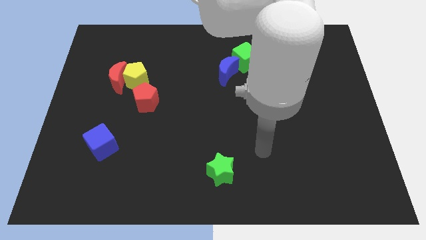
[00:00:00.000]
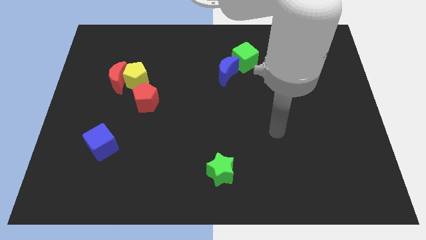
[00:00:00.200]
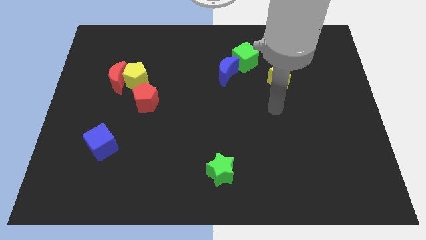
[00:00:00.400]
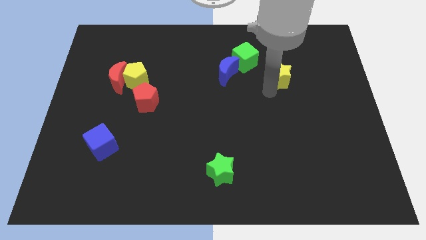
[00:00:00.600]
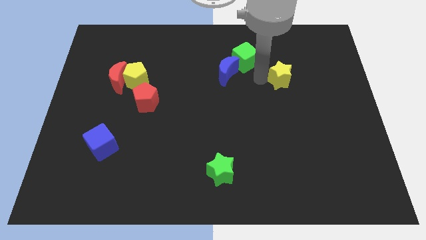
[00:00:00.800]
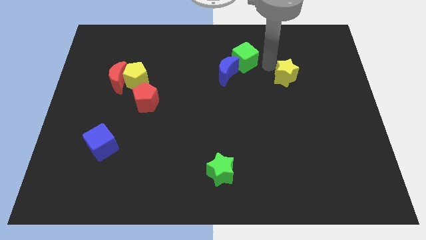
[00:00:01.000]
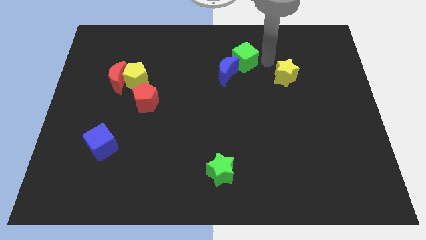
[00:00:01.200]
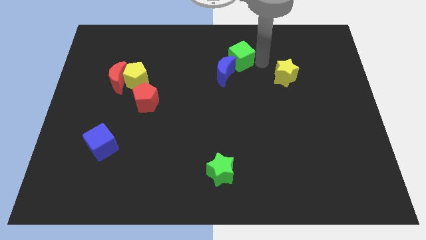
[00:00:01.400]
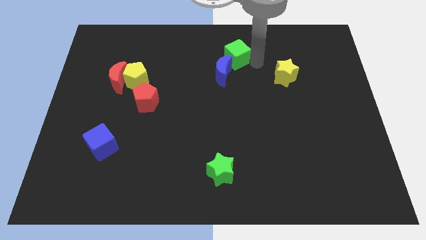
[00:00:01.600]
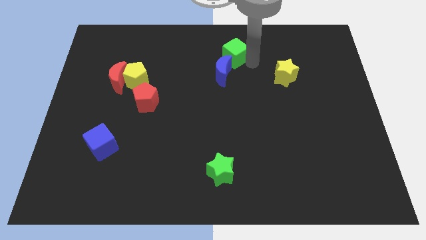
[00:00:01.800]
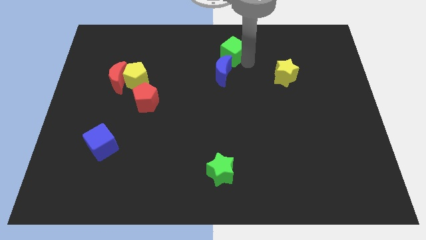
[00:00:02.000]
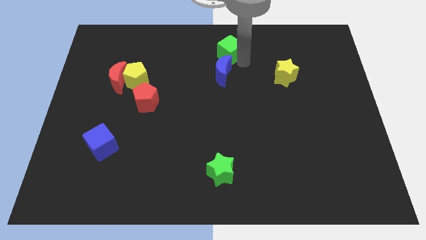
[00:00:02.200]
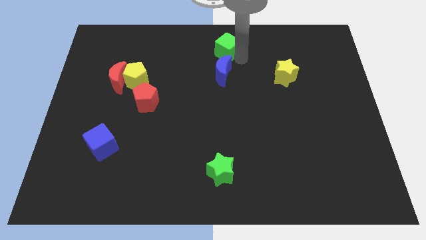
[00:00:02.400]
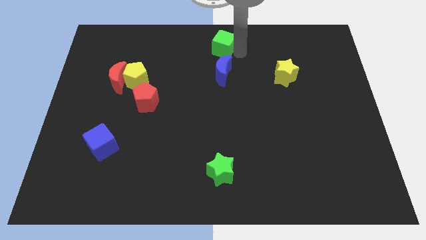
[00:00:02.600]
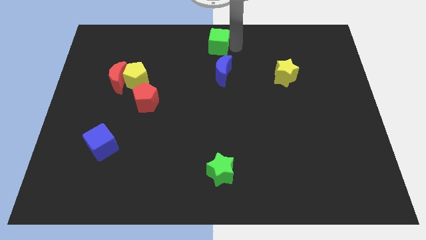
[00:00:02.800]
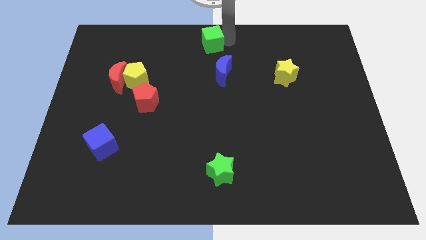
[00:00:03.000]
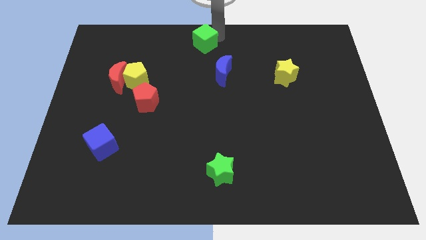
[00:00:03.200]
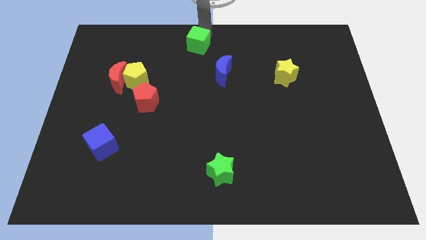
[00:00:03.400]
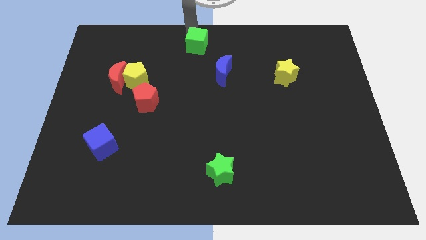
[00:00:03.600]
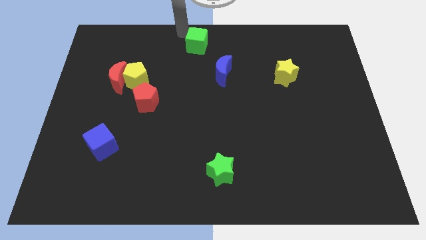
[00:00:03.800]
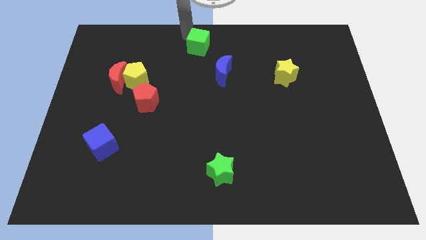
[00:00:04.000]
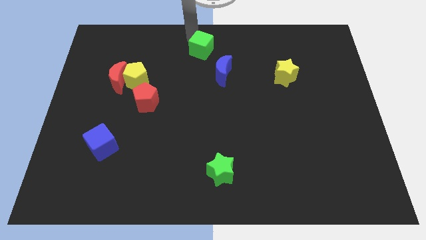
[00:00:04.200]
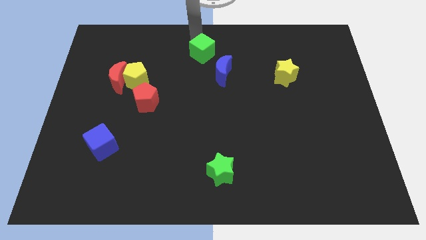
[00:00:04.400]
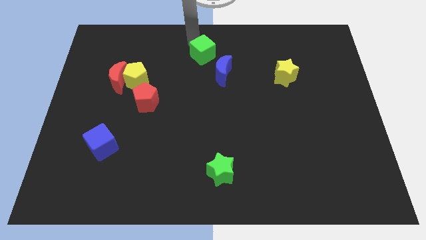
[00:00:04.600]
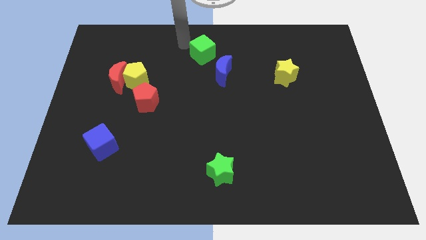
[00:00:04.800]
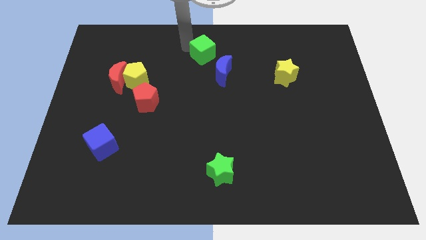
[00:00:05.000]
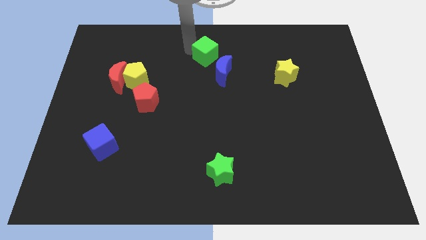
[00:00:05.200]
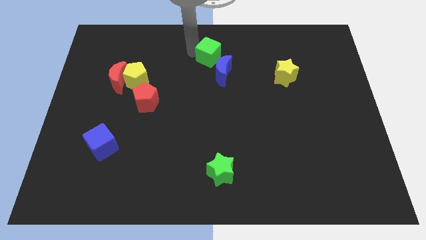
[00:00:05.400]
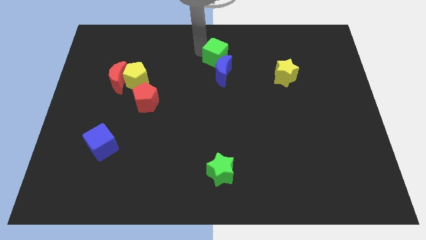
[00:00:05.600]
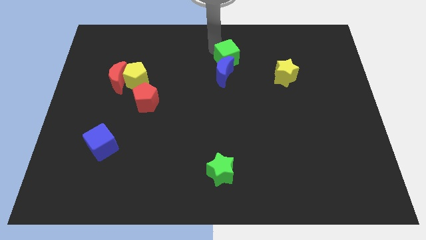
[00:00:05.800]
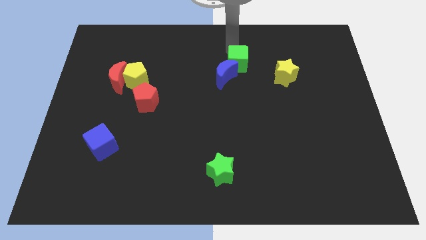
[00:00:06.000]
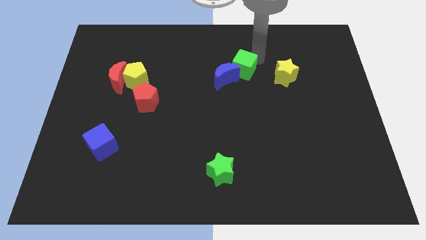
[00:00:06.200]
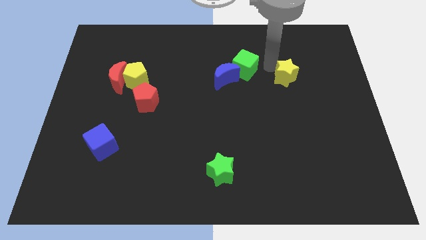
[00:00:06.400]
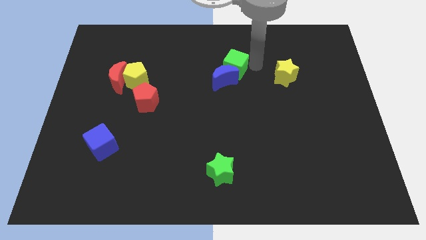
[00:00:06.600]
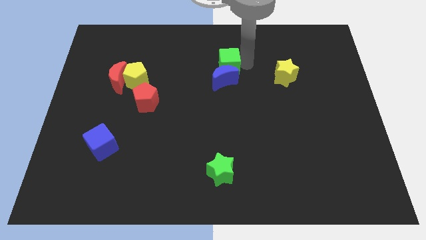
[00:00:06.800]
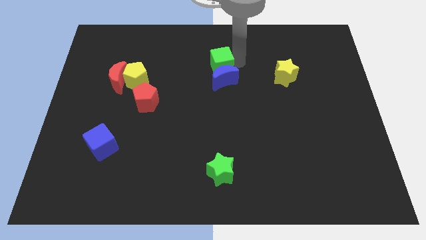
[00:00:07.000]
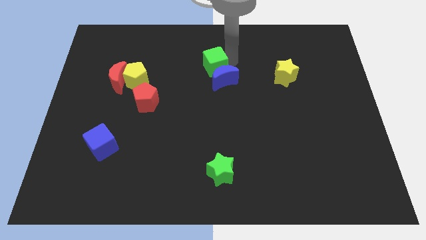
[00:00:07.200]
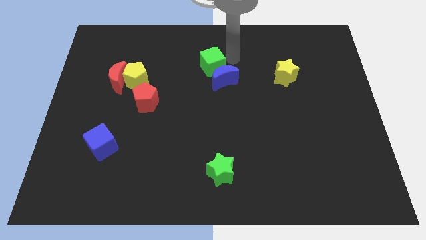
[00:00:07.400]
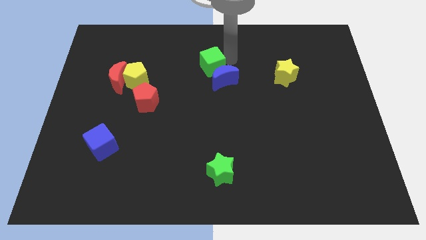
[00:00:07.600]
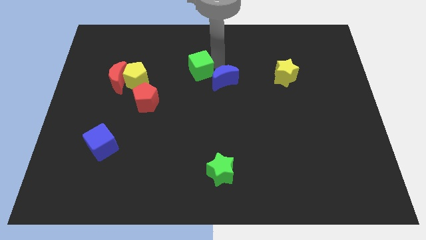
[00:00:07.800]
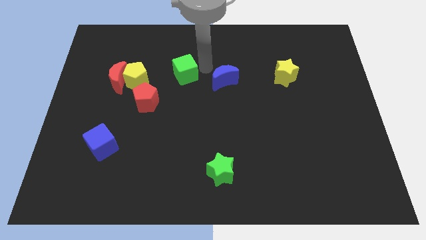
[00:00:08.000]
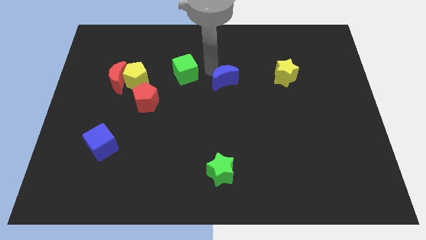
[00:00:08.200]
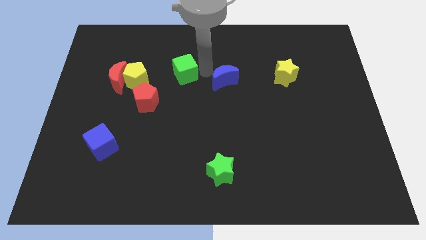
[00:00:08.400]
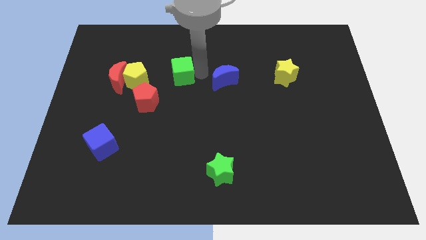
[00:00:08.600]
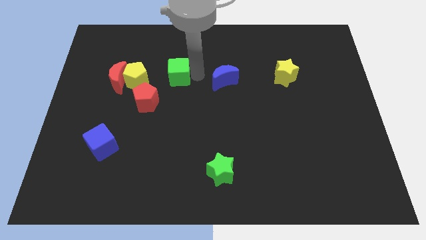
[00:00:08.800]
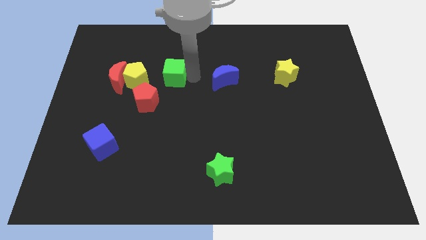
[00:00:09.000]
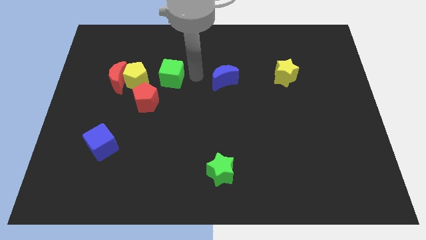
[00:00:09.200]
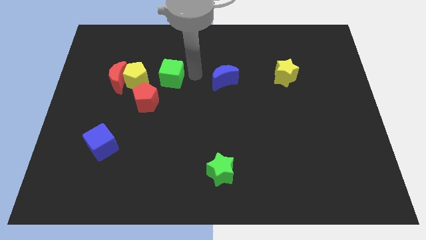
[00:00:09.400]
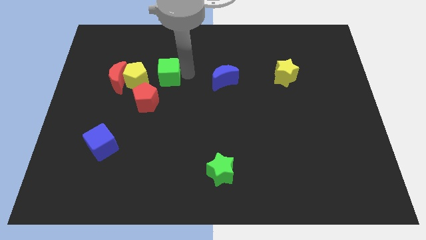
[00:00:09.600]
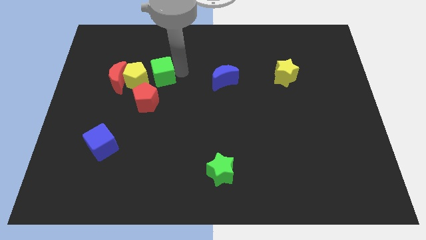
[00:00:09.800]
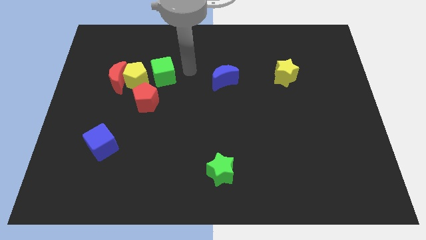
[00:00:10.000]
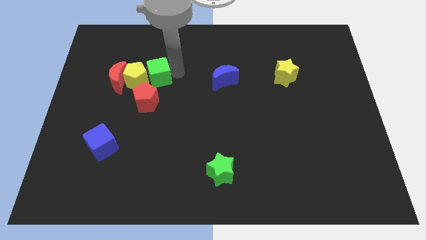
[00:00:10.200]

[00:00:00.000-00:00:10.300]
push the green cube next to the yellow pentagon

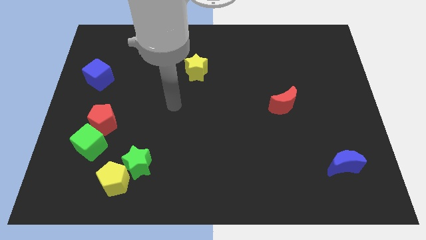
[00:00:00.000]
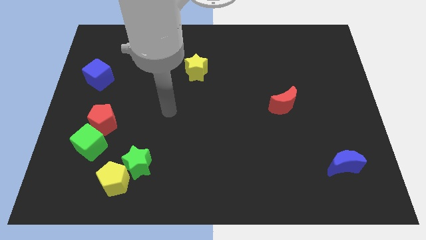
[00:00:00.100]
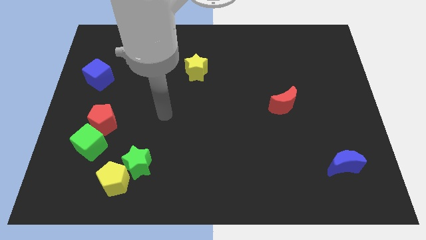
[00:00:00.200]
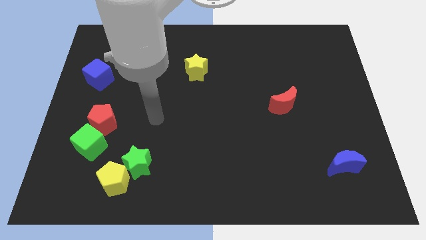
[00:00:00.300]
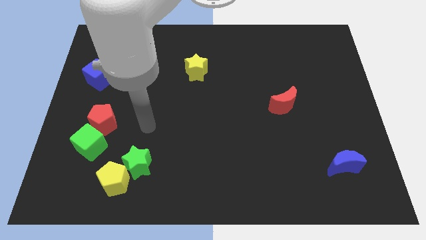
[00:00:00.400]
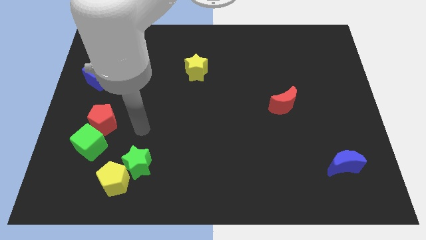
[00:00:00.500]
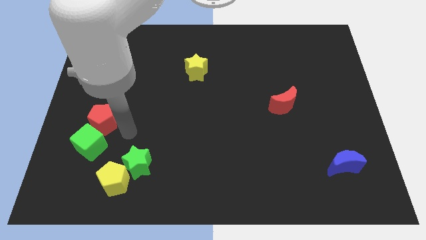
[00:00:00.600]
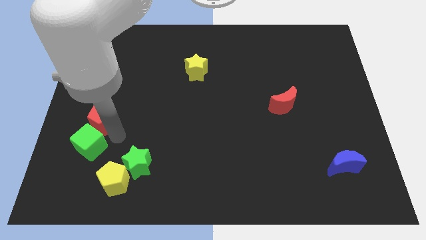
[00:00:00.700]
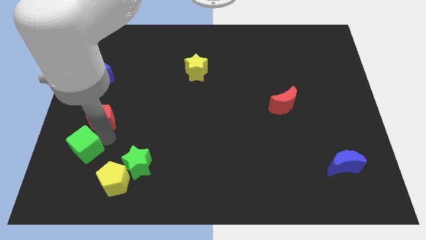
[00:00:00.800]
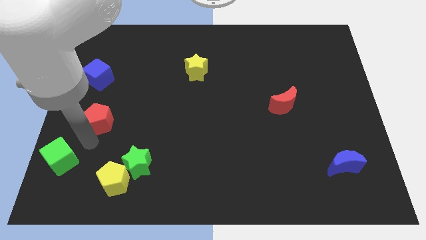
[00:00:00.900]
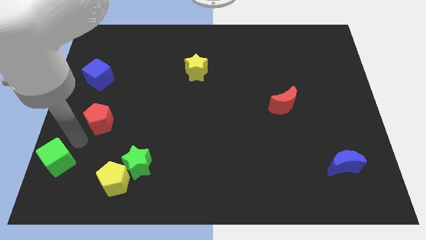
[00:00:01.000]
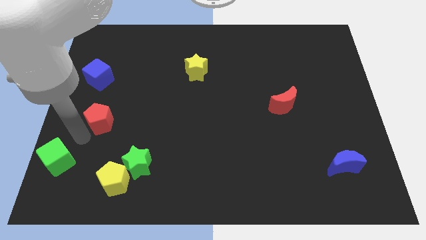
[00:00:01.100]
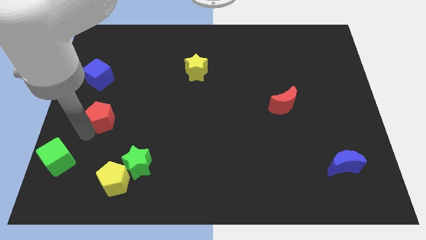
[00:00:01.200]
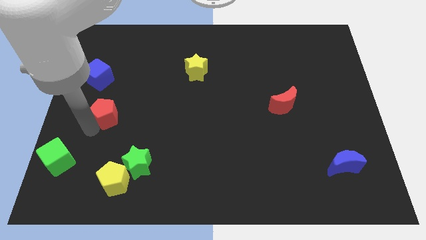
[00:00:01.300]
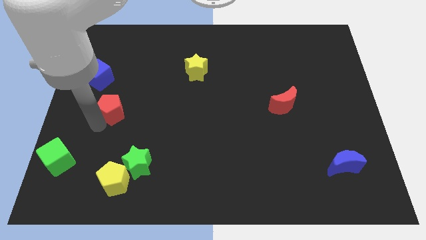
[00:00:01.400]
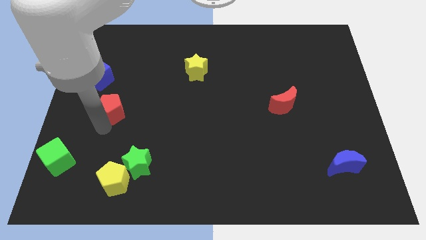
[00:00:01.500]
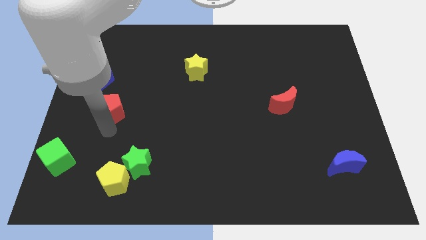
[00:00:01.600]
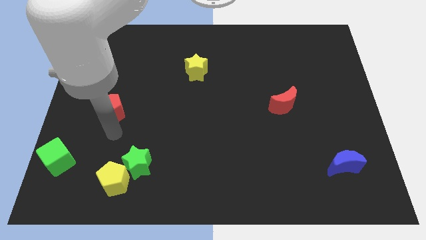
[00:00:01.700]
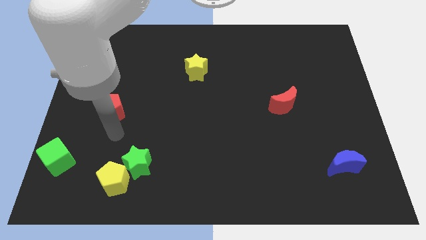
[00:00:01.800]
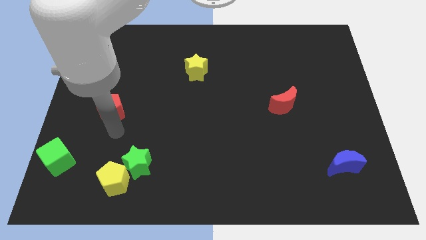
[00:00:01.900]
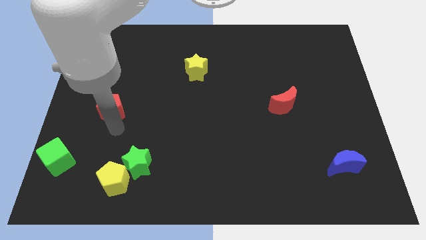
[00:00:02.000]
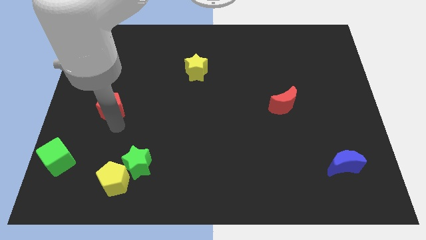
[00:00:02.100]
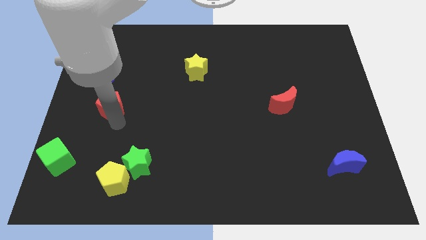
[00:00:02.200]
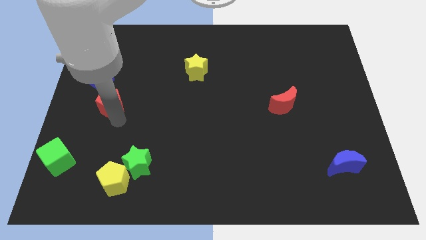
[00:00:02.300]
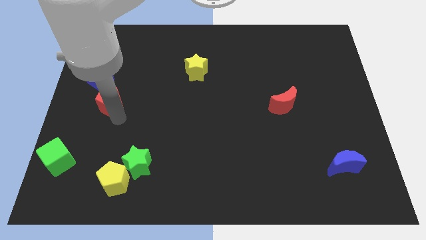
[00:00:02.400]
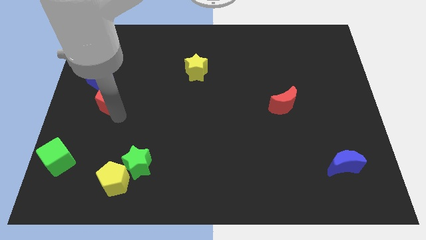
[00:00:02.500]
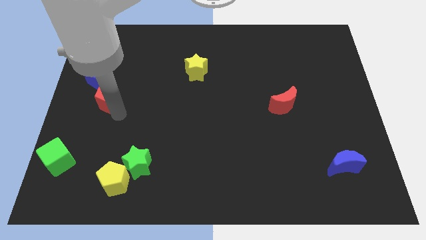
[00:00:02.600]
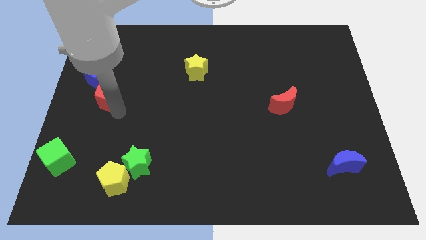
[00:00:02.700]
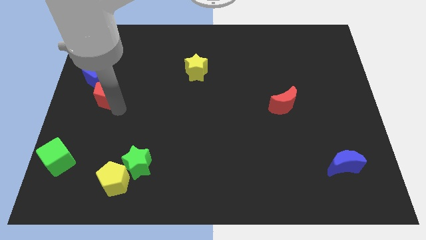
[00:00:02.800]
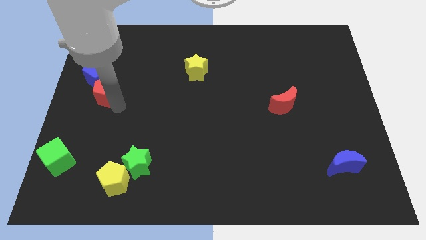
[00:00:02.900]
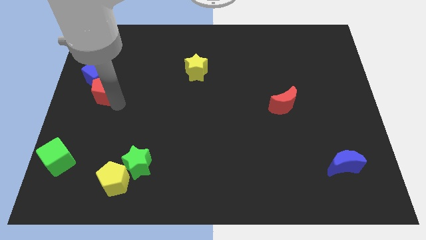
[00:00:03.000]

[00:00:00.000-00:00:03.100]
slide the red pentagon close to the blue cube
